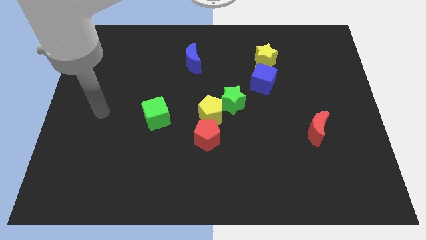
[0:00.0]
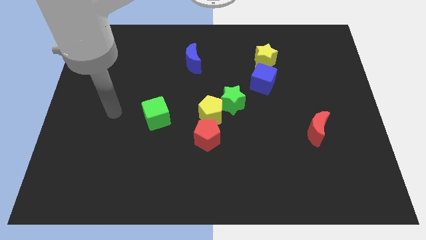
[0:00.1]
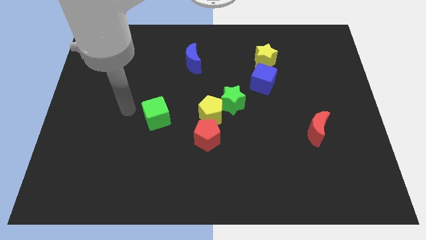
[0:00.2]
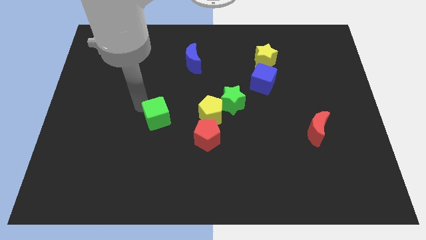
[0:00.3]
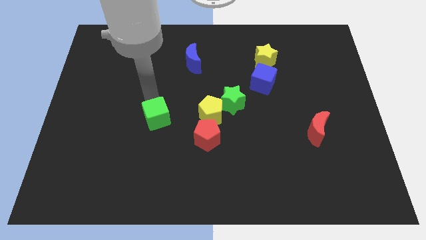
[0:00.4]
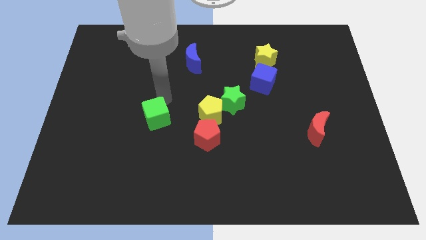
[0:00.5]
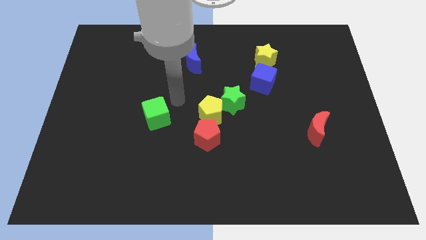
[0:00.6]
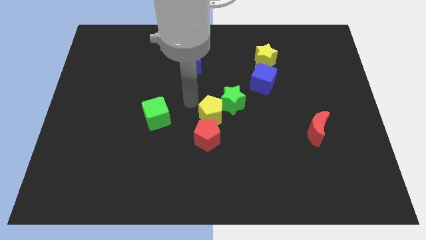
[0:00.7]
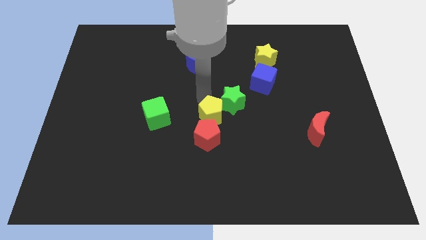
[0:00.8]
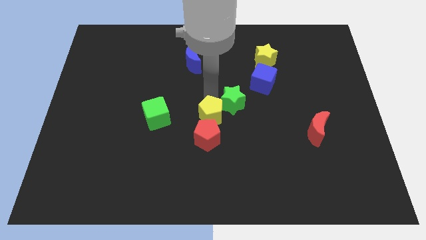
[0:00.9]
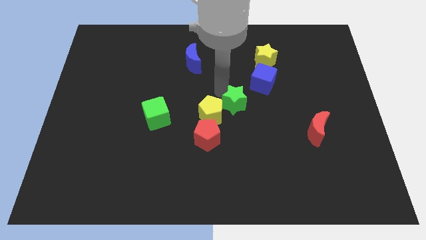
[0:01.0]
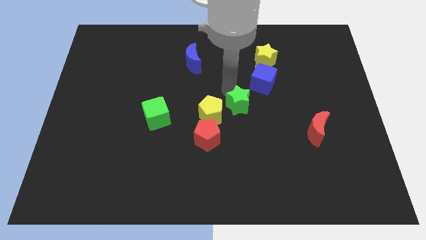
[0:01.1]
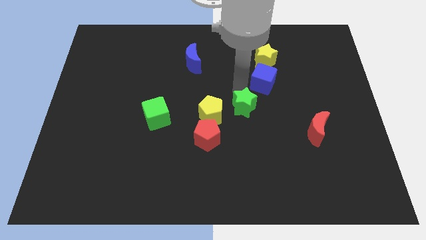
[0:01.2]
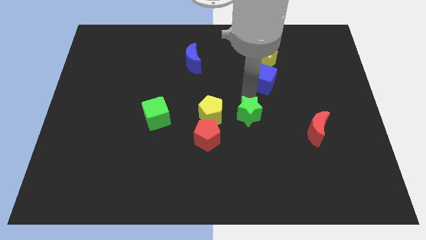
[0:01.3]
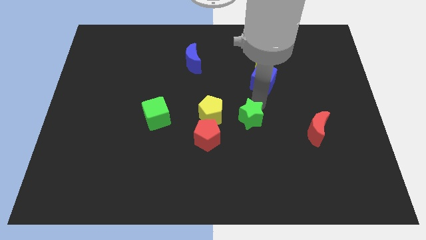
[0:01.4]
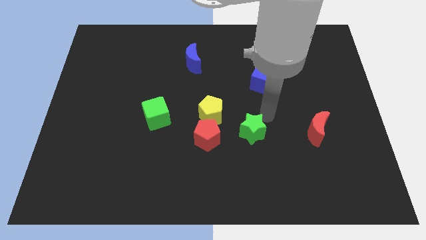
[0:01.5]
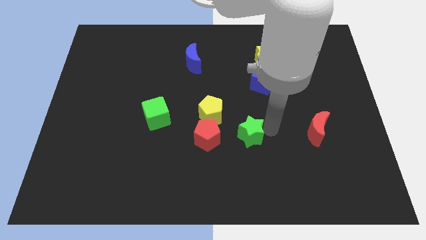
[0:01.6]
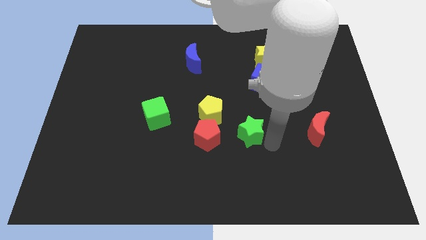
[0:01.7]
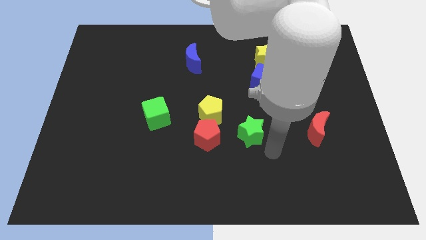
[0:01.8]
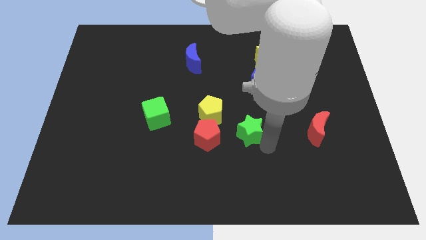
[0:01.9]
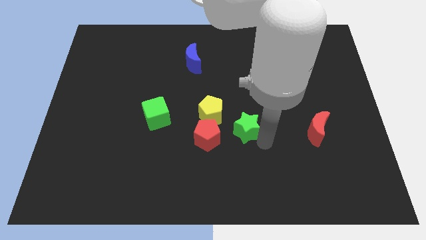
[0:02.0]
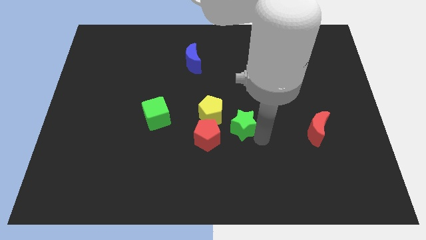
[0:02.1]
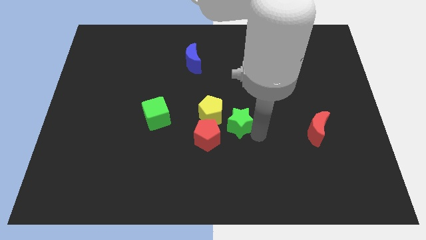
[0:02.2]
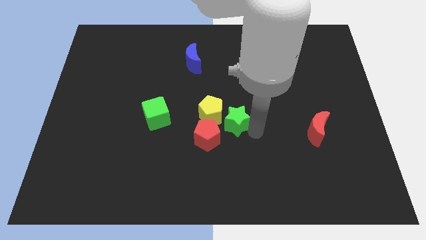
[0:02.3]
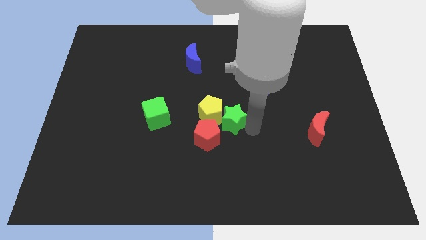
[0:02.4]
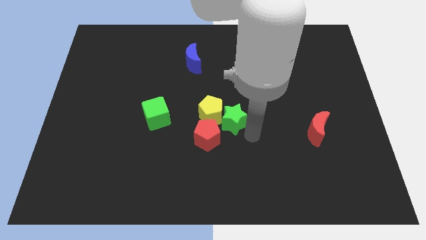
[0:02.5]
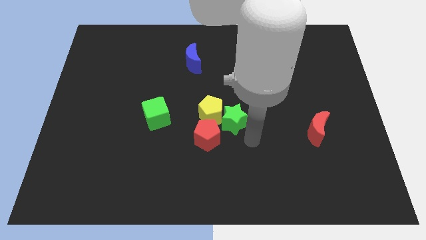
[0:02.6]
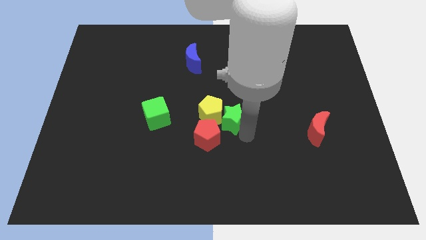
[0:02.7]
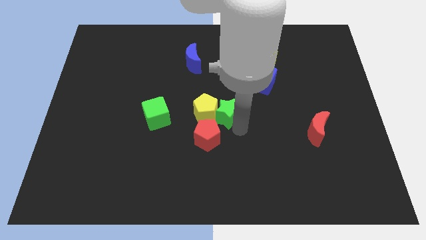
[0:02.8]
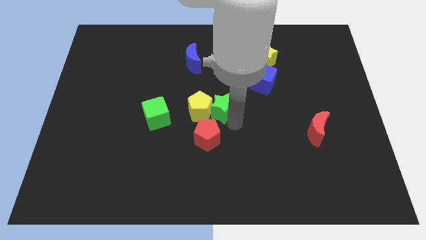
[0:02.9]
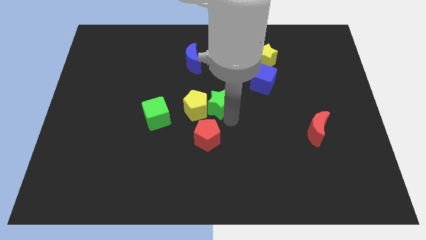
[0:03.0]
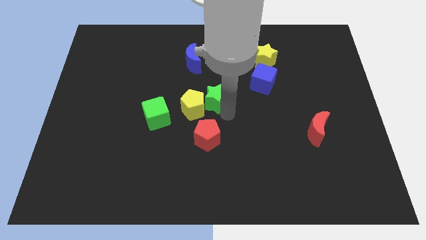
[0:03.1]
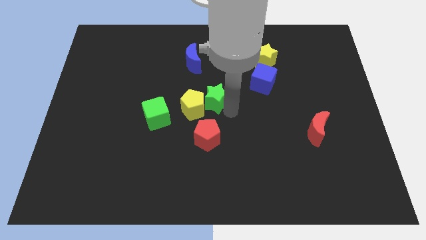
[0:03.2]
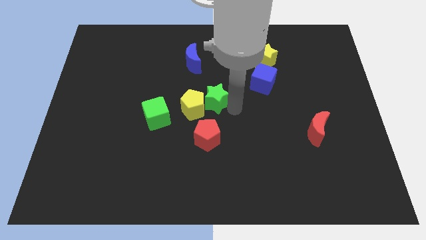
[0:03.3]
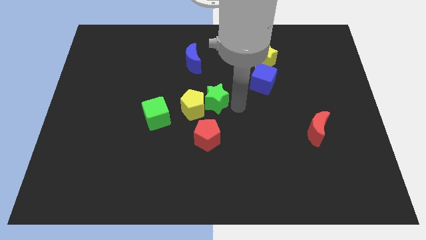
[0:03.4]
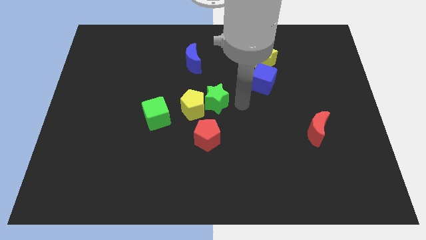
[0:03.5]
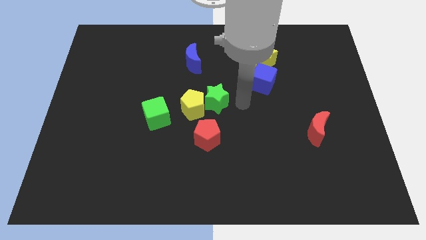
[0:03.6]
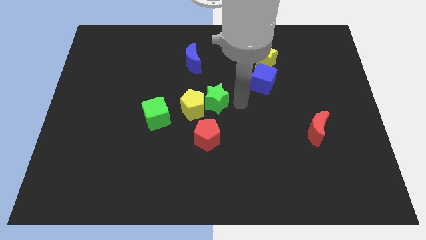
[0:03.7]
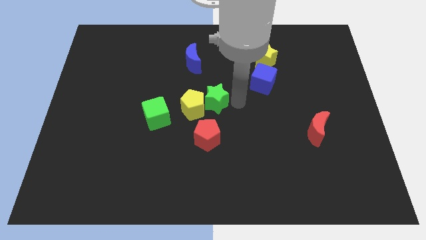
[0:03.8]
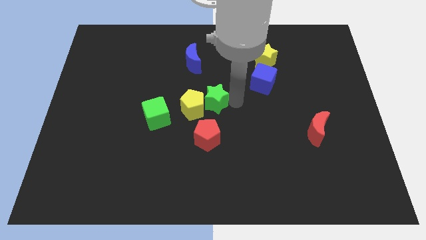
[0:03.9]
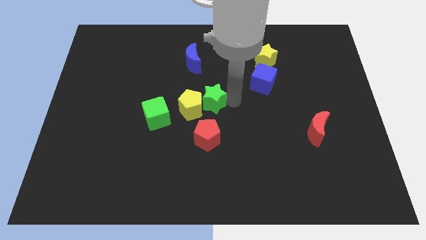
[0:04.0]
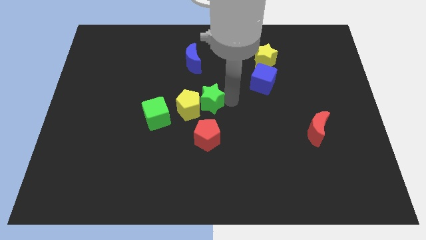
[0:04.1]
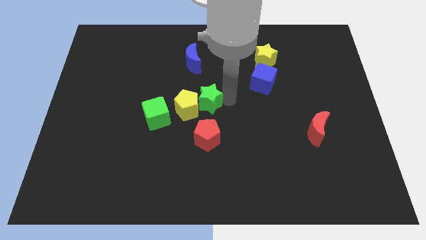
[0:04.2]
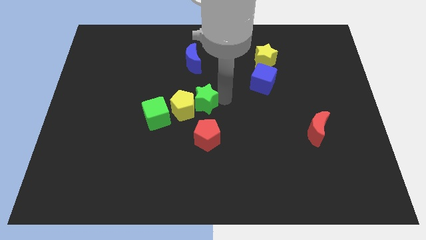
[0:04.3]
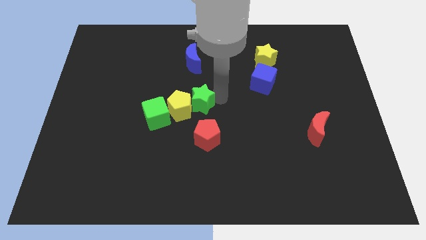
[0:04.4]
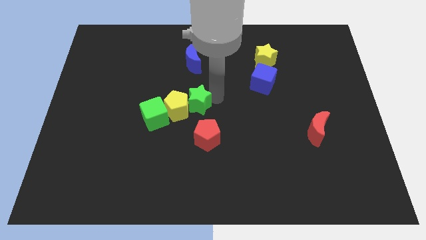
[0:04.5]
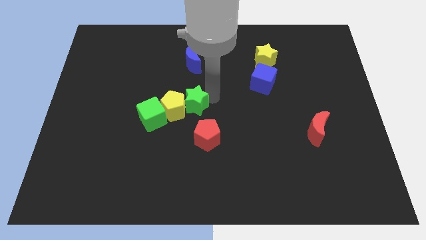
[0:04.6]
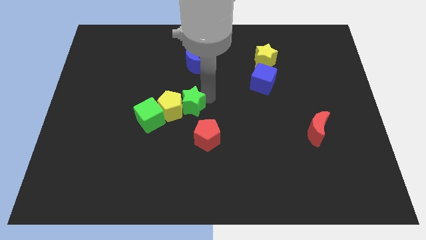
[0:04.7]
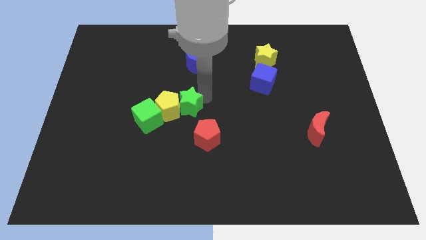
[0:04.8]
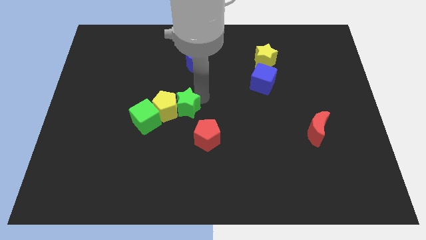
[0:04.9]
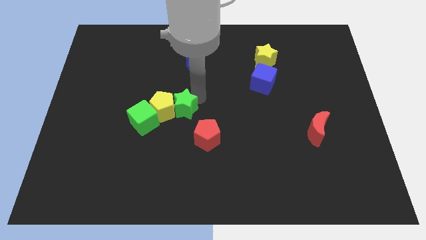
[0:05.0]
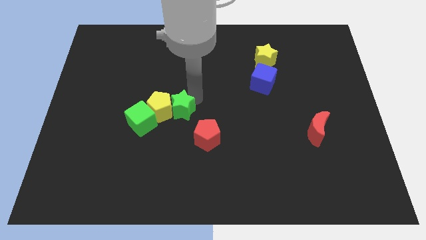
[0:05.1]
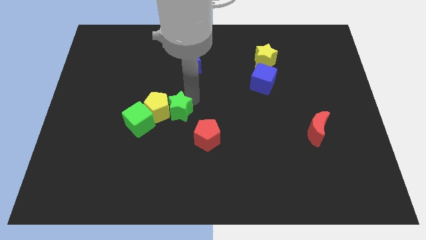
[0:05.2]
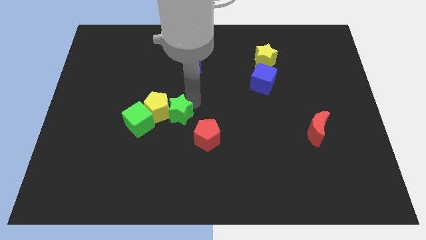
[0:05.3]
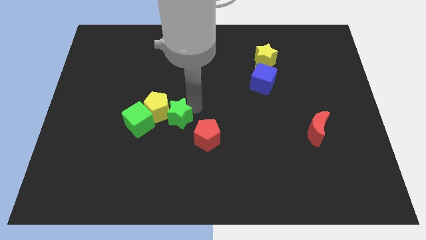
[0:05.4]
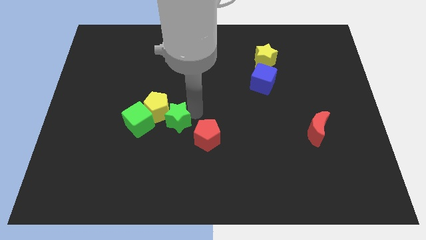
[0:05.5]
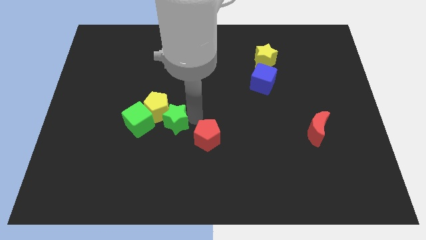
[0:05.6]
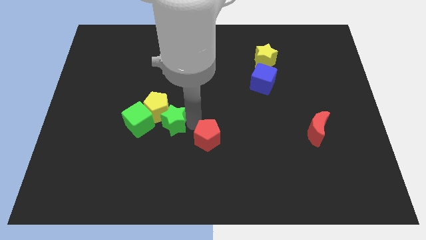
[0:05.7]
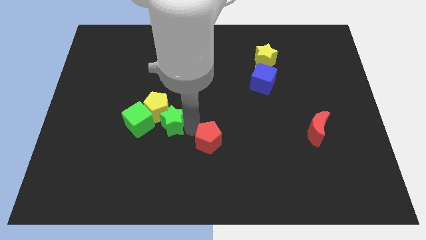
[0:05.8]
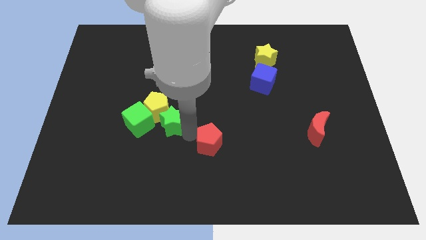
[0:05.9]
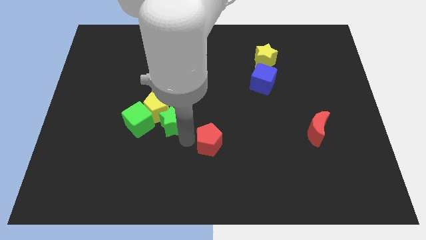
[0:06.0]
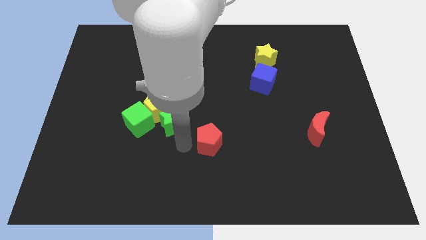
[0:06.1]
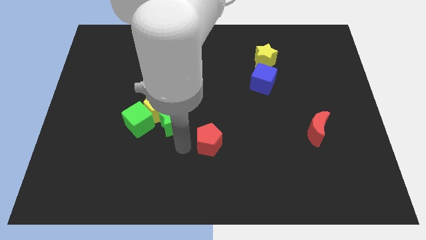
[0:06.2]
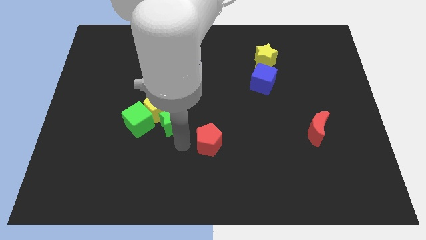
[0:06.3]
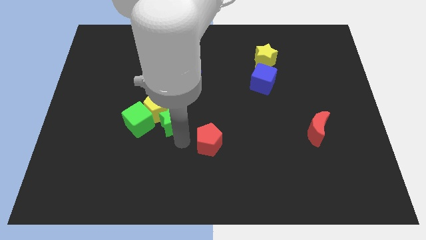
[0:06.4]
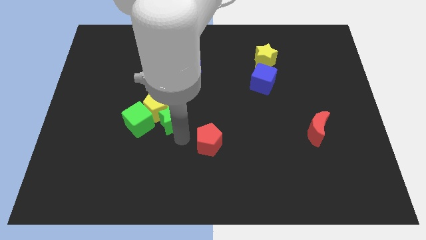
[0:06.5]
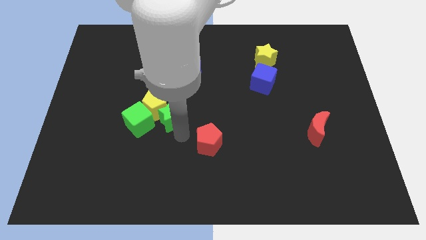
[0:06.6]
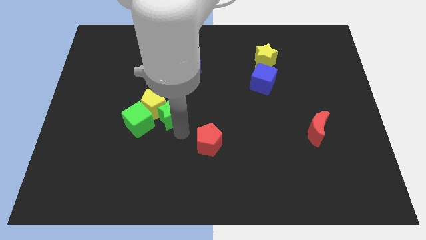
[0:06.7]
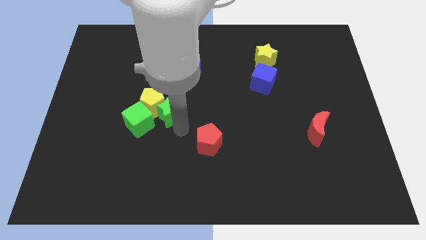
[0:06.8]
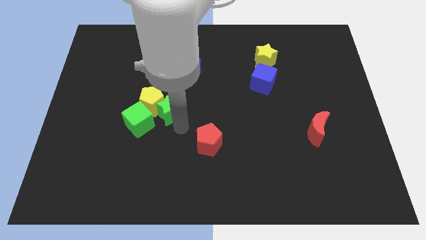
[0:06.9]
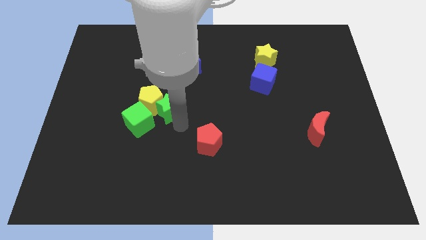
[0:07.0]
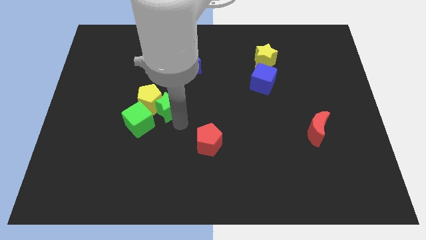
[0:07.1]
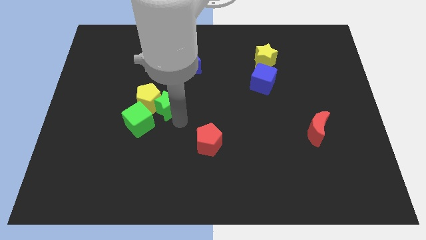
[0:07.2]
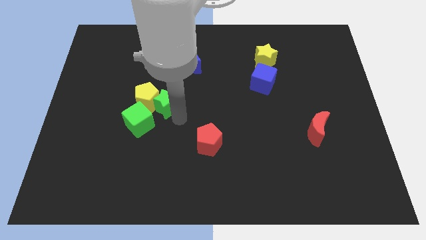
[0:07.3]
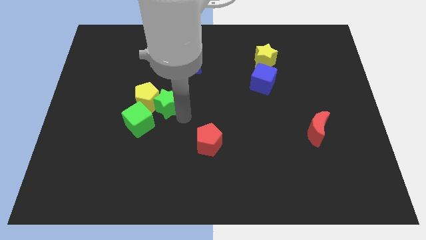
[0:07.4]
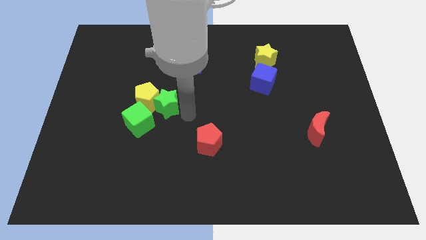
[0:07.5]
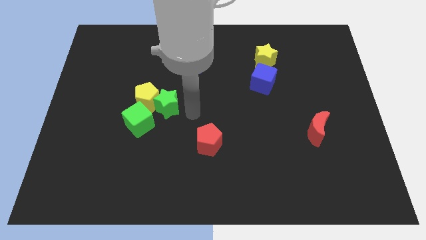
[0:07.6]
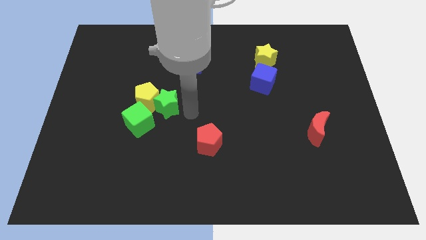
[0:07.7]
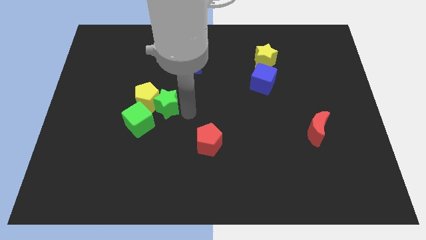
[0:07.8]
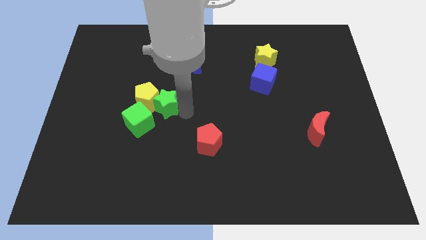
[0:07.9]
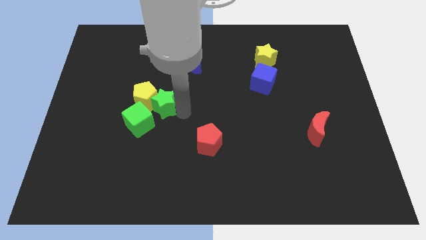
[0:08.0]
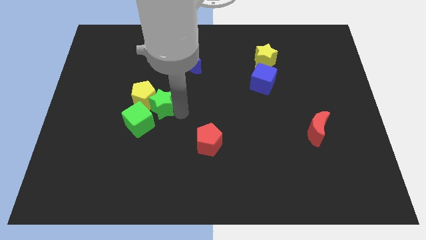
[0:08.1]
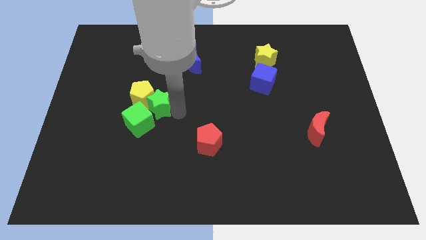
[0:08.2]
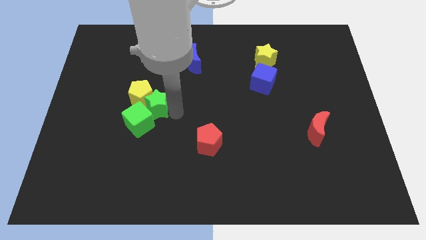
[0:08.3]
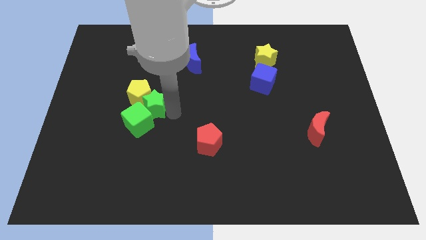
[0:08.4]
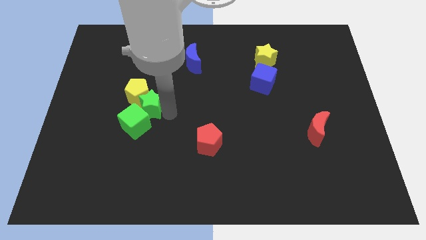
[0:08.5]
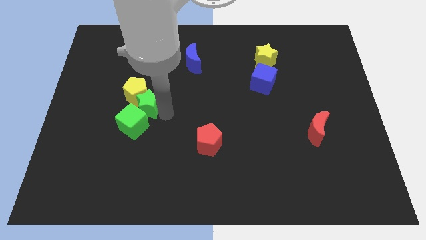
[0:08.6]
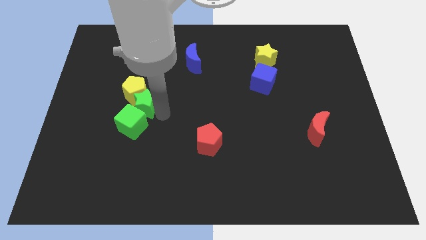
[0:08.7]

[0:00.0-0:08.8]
slide the green star to the left
